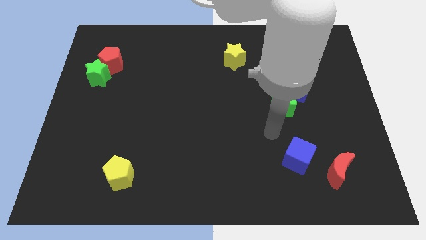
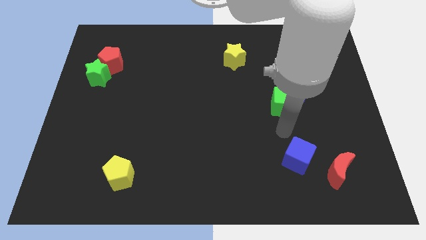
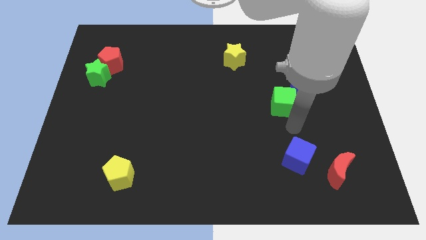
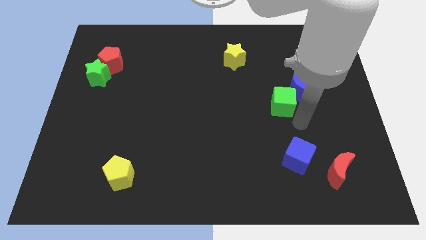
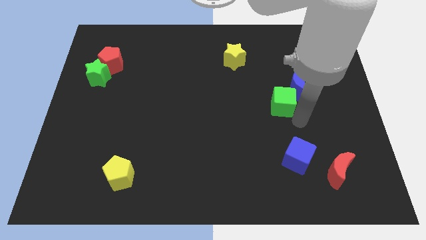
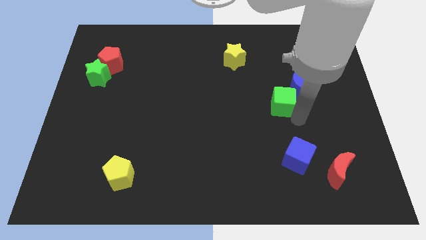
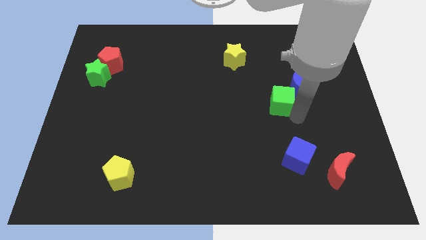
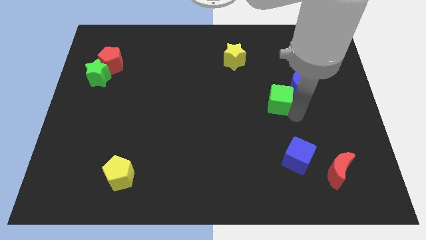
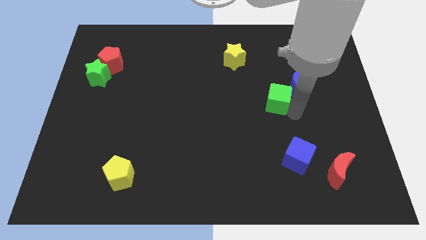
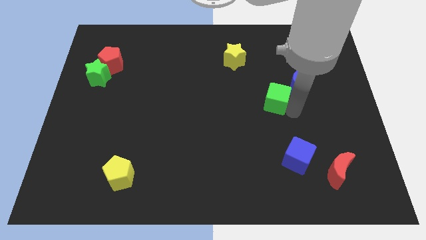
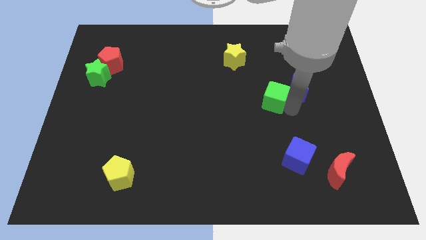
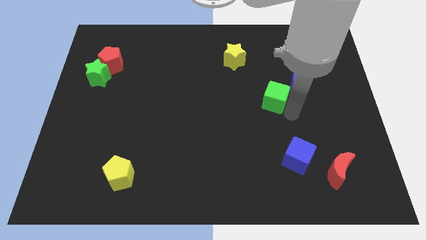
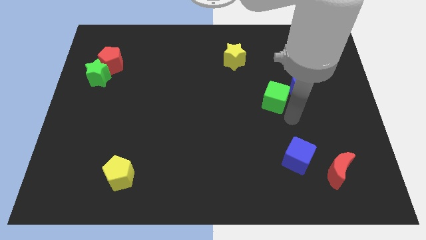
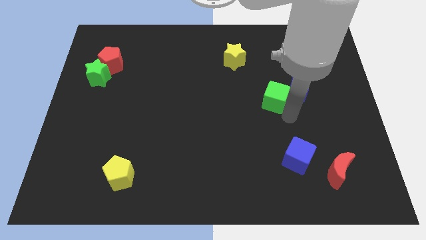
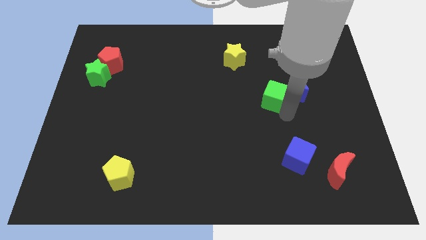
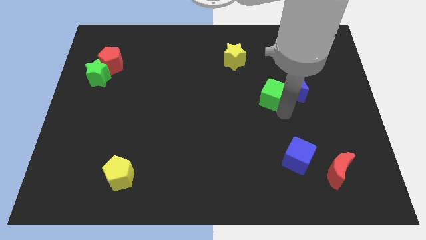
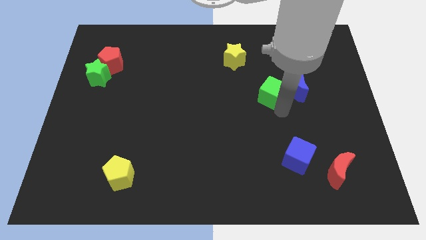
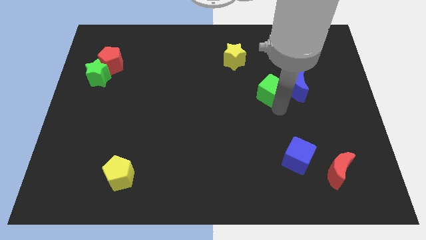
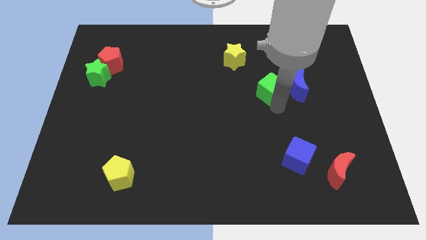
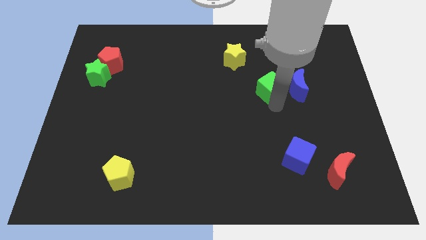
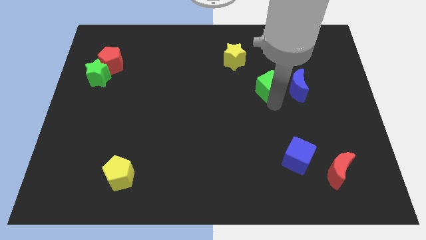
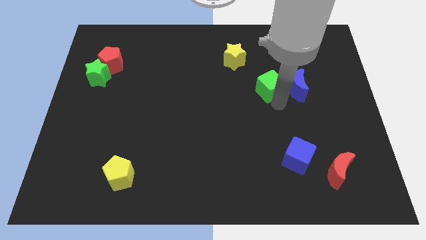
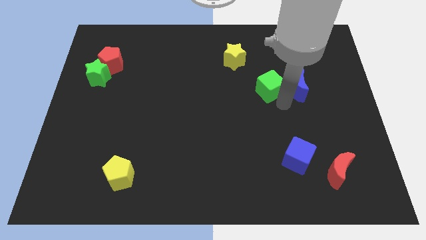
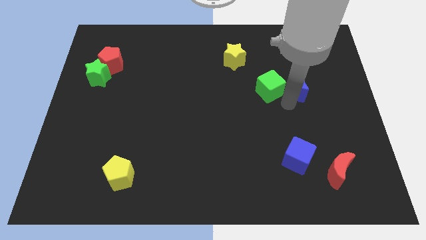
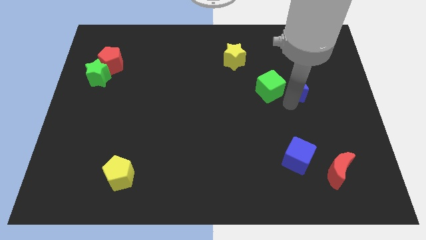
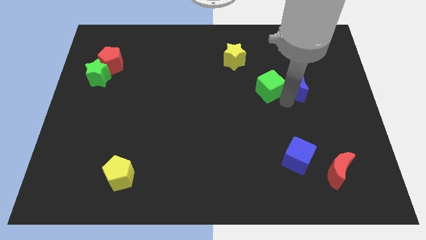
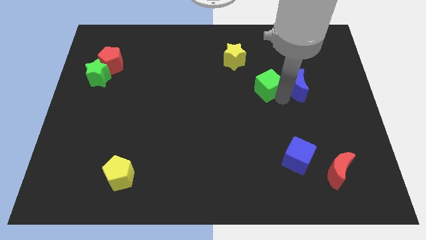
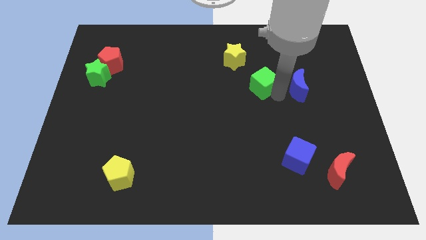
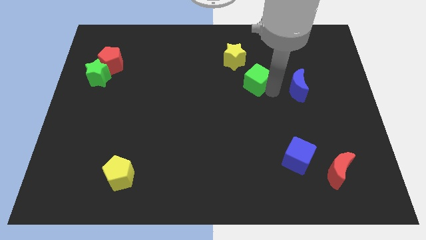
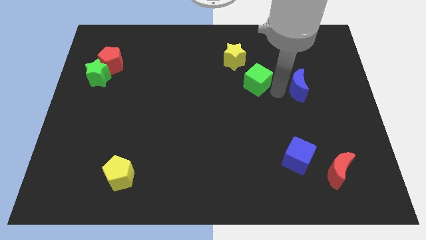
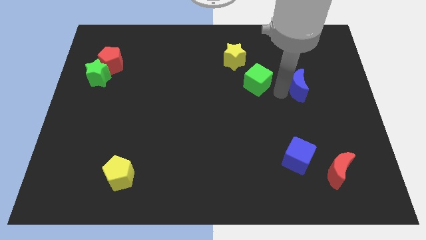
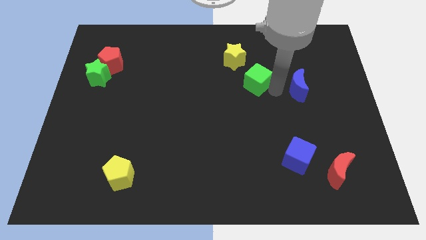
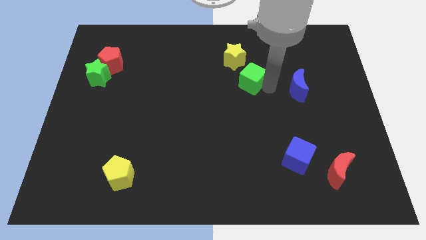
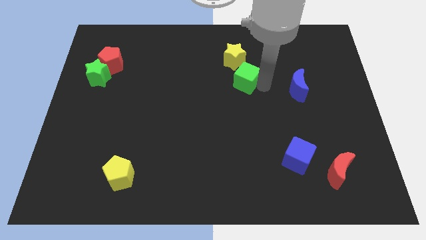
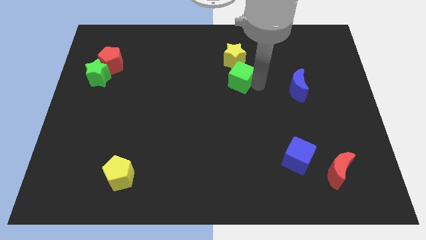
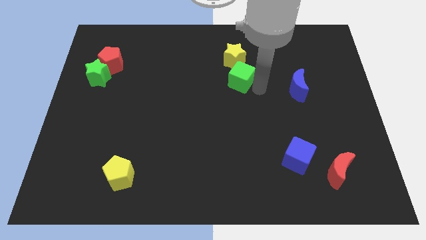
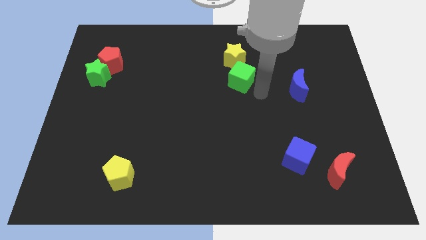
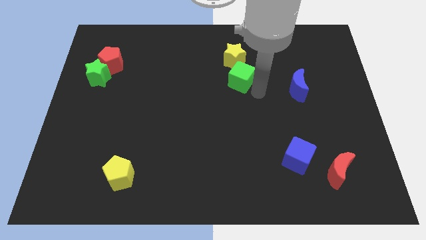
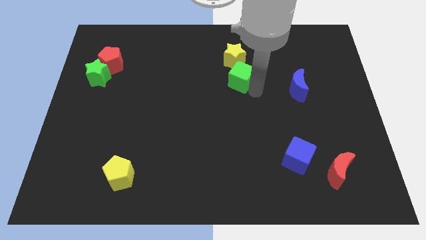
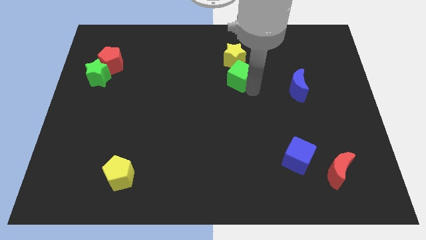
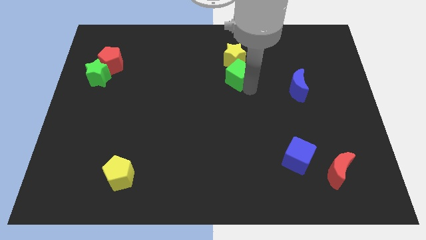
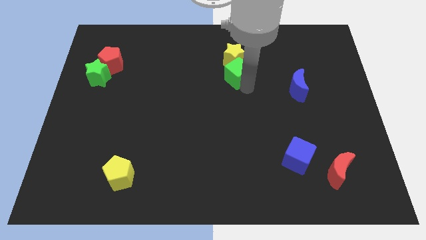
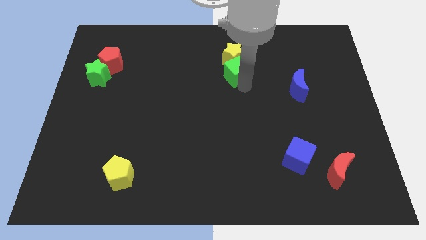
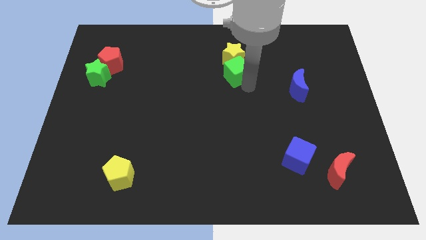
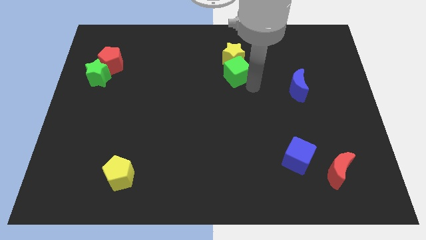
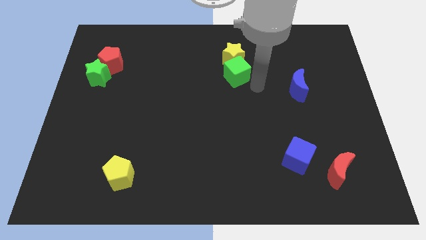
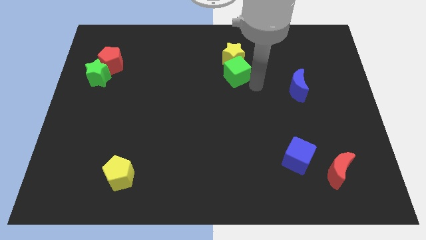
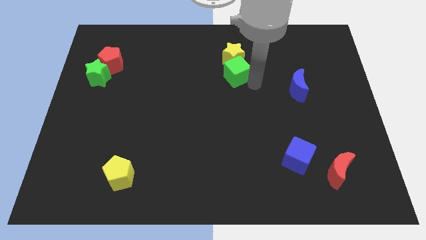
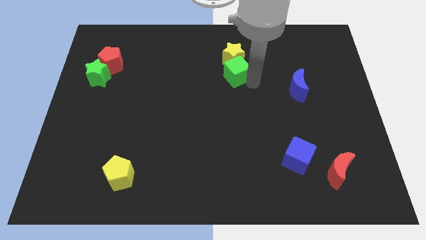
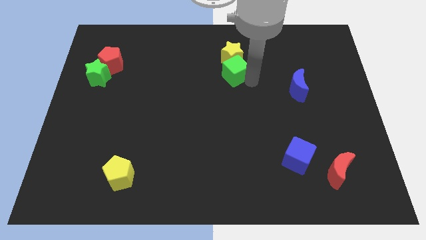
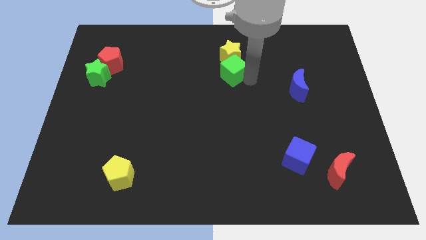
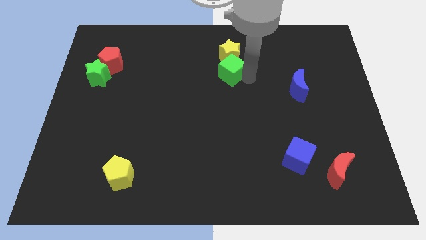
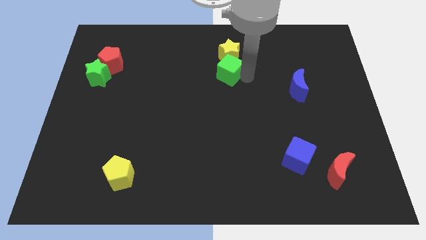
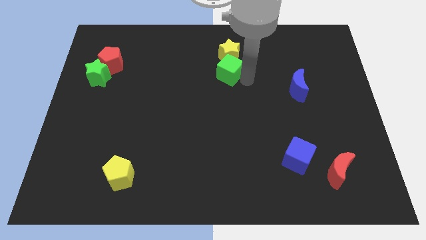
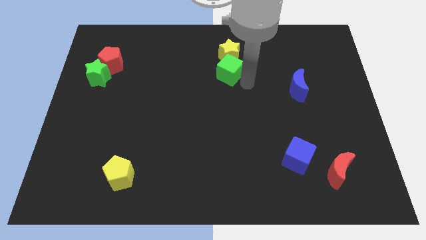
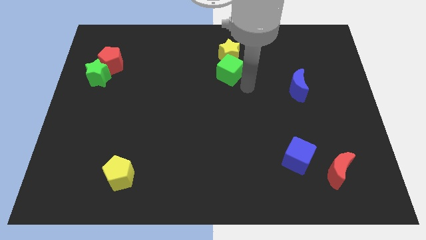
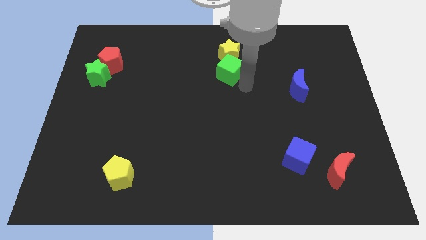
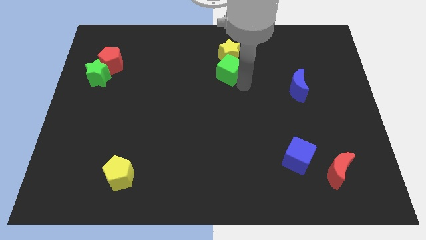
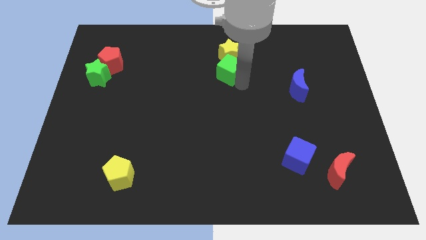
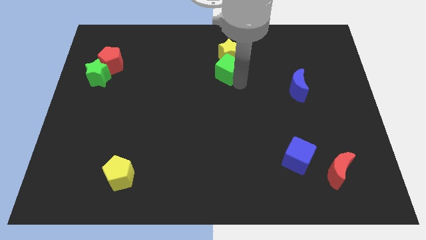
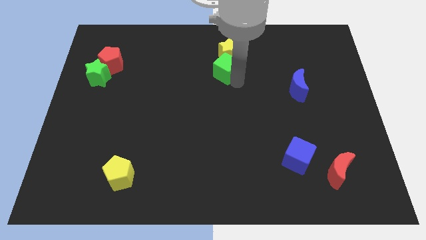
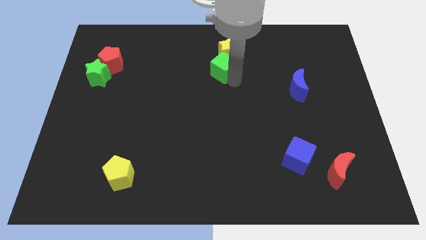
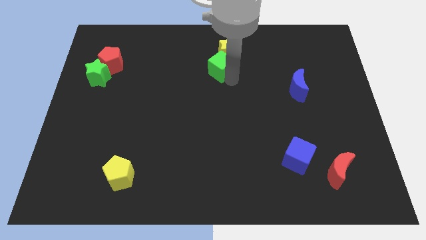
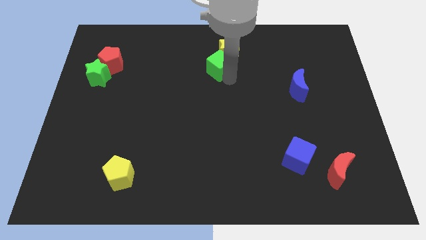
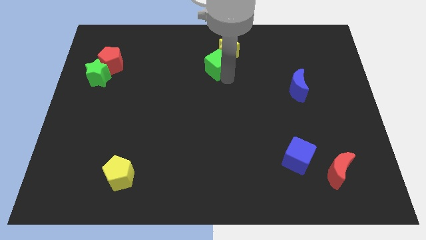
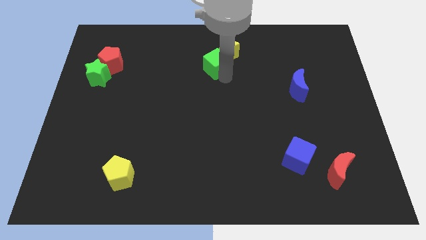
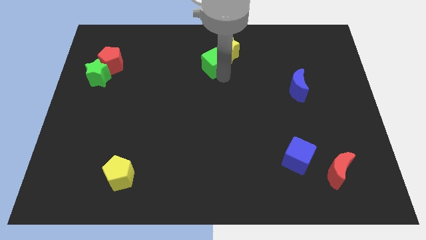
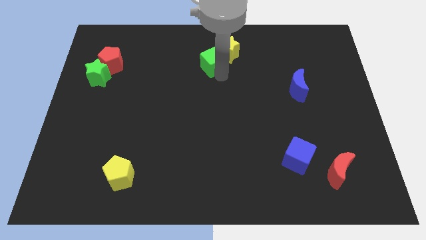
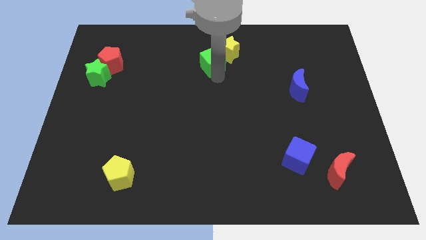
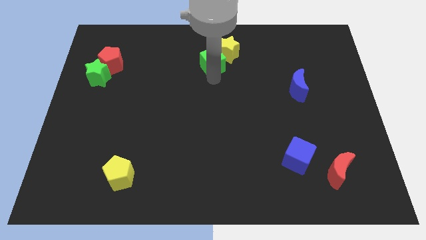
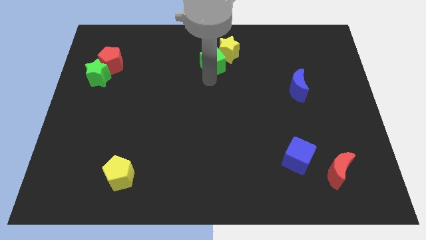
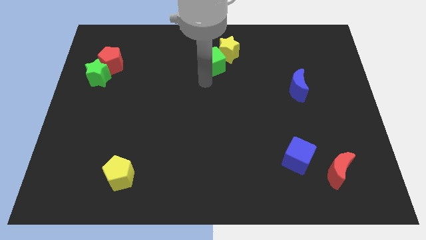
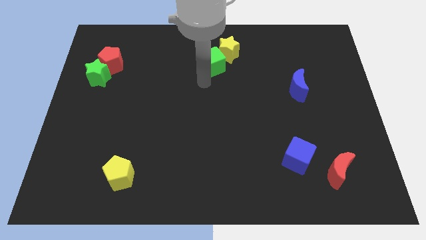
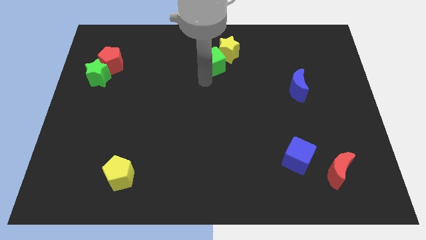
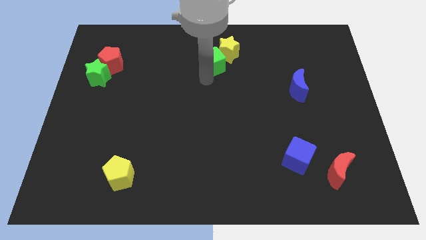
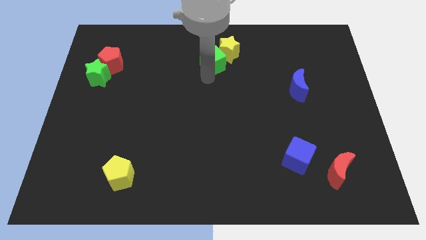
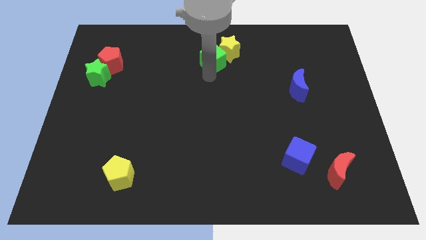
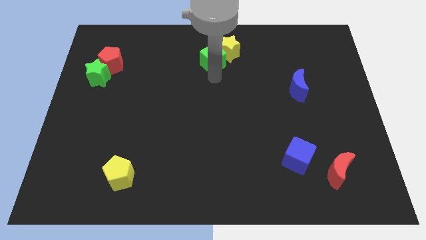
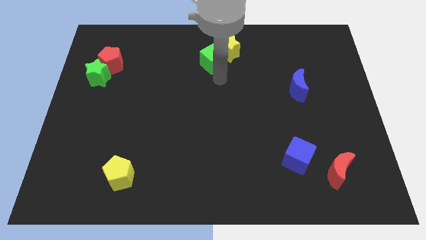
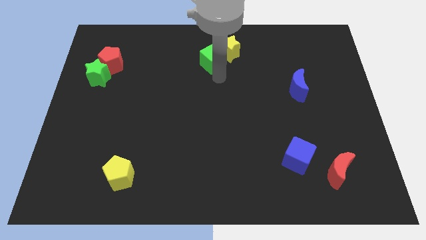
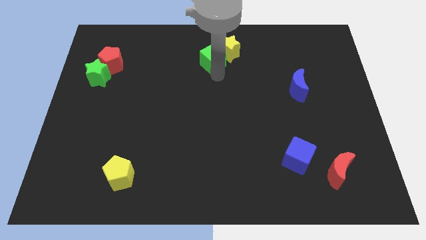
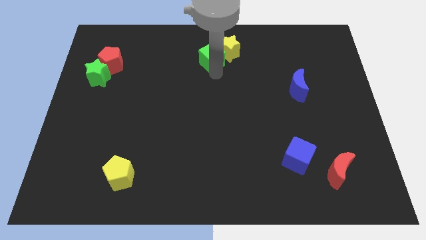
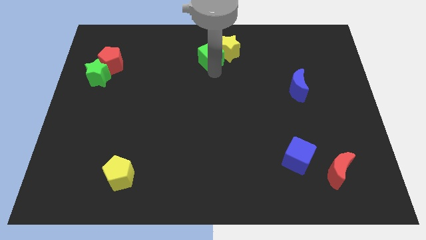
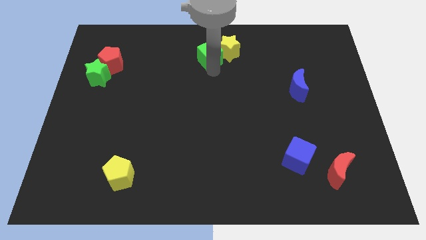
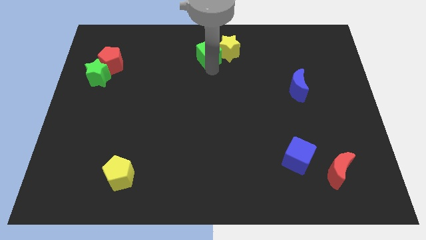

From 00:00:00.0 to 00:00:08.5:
push the green cube to the top
